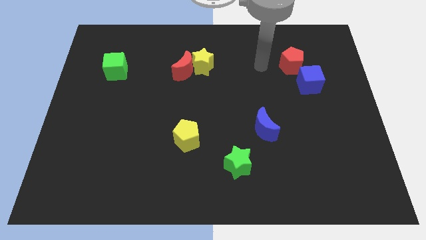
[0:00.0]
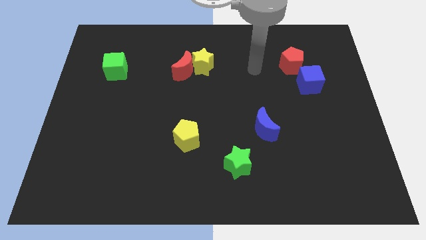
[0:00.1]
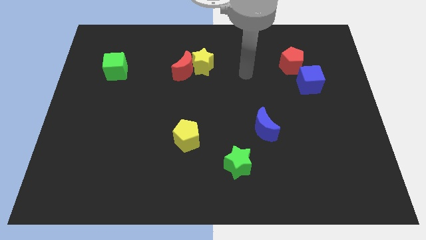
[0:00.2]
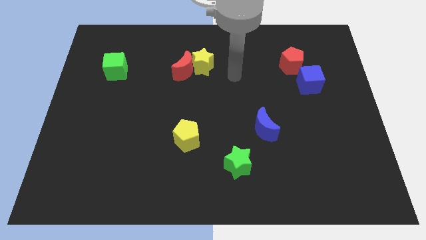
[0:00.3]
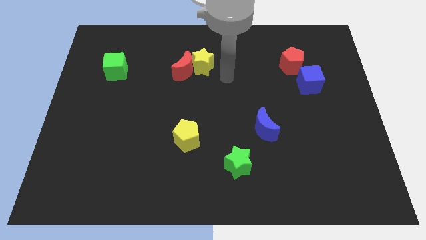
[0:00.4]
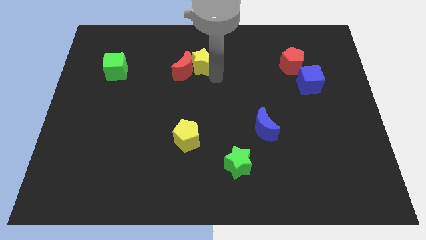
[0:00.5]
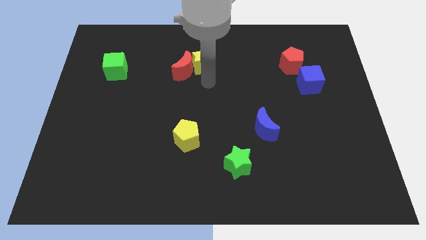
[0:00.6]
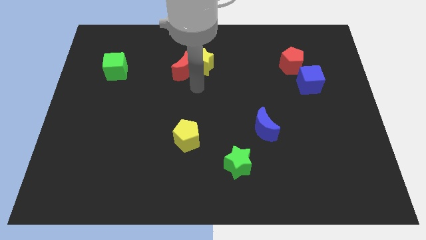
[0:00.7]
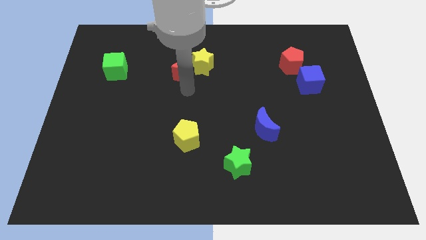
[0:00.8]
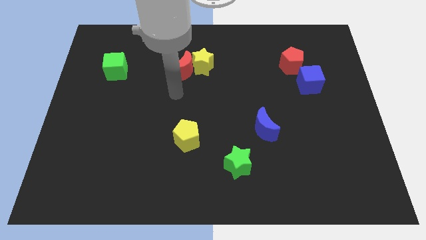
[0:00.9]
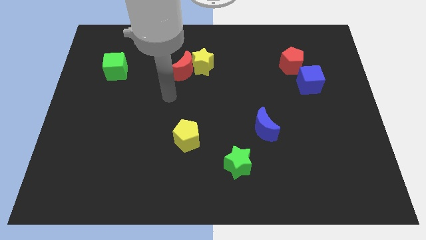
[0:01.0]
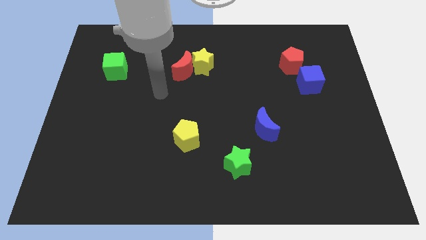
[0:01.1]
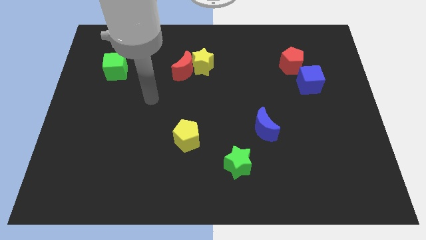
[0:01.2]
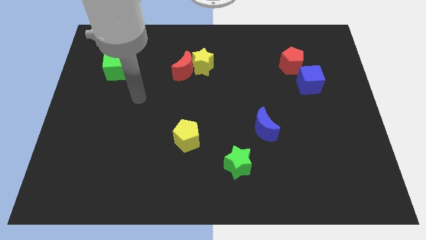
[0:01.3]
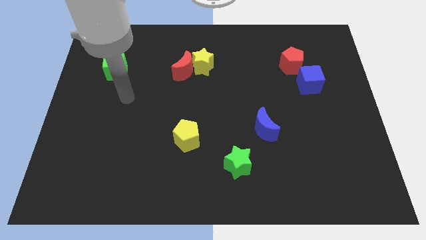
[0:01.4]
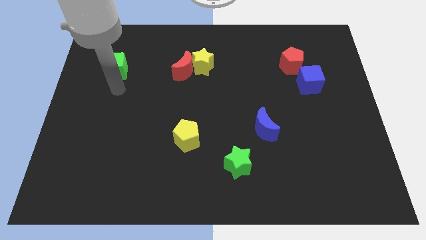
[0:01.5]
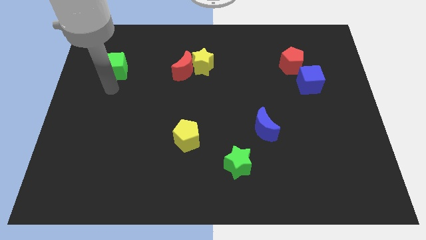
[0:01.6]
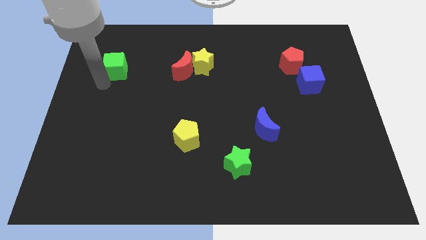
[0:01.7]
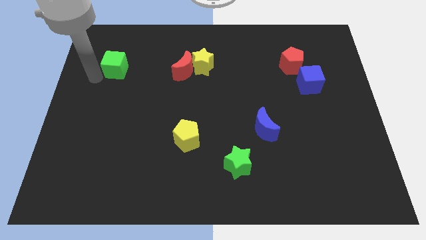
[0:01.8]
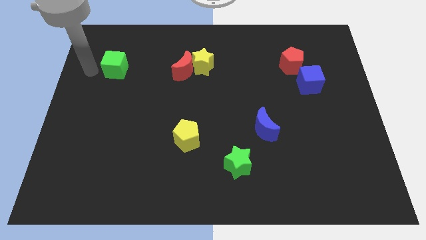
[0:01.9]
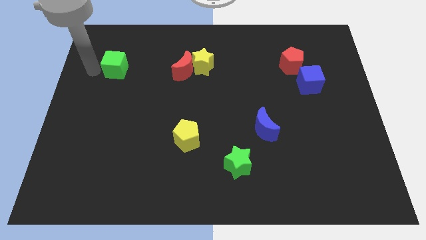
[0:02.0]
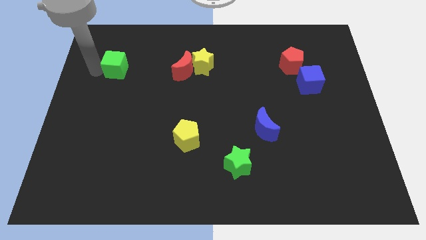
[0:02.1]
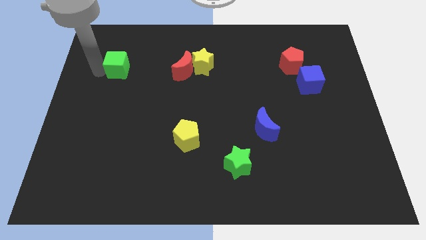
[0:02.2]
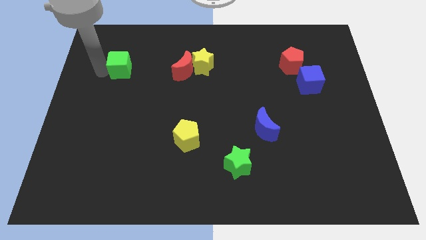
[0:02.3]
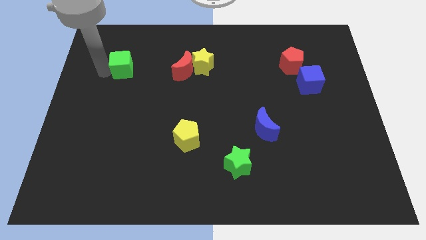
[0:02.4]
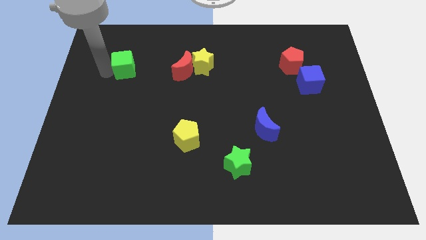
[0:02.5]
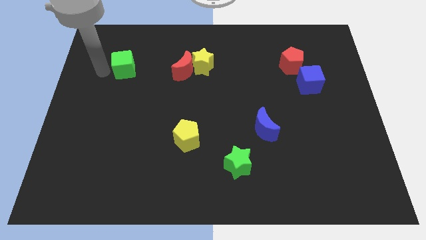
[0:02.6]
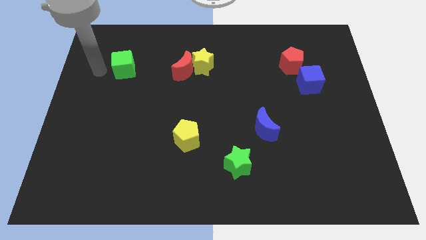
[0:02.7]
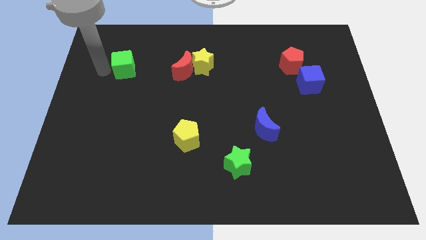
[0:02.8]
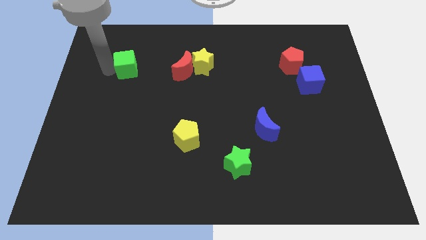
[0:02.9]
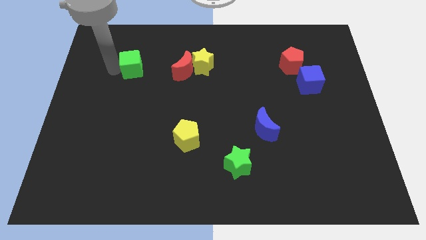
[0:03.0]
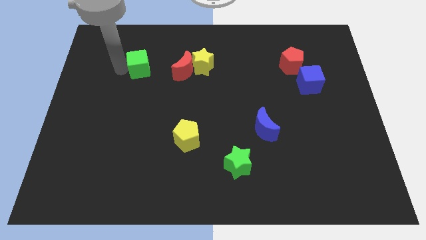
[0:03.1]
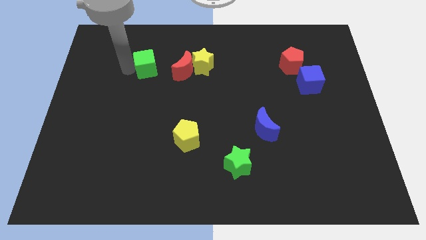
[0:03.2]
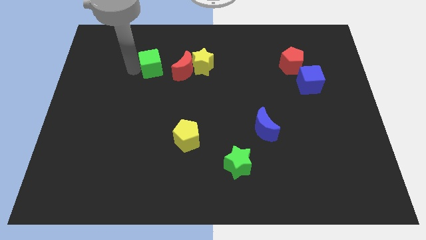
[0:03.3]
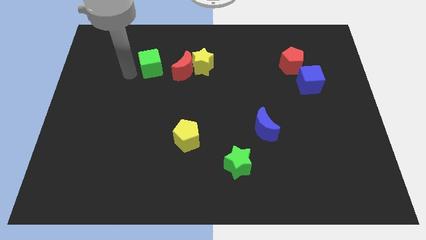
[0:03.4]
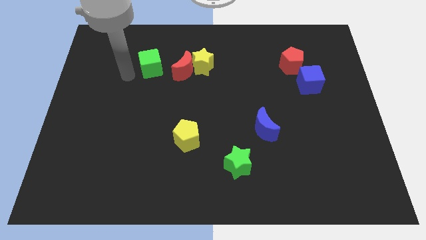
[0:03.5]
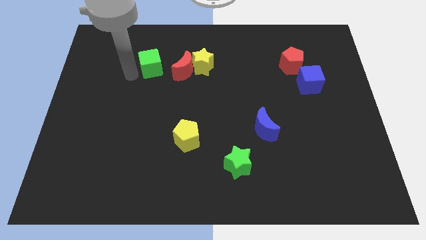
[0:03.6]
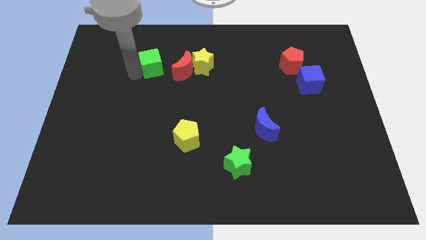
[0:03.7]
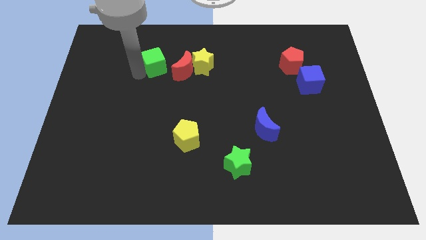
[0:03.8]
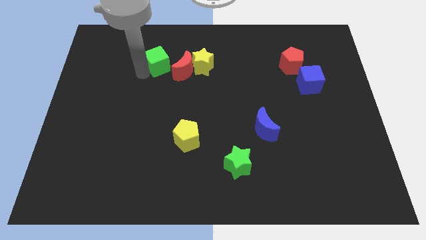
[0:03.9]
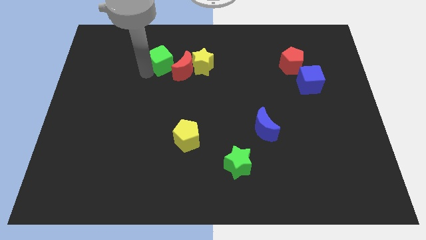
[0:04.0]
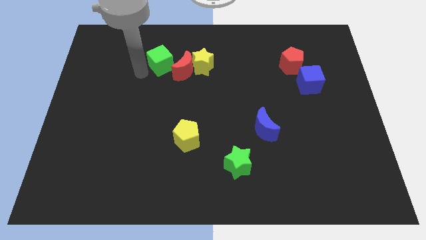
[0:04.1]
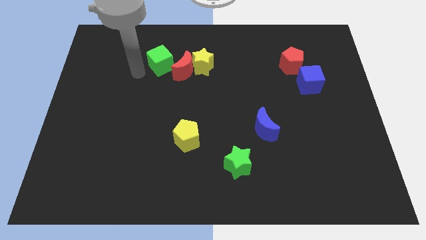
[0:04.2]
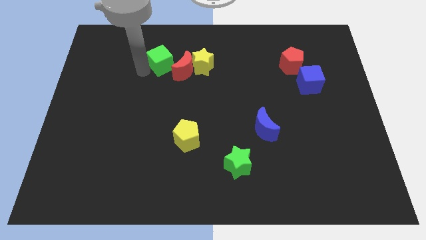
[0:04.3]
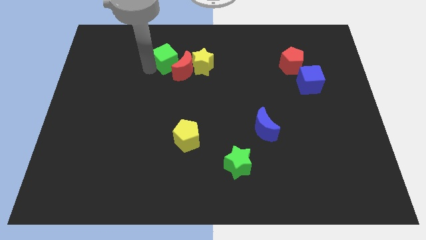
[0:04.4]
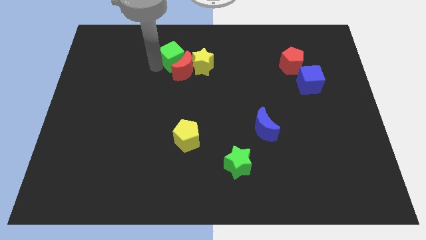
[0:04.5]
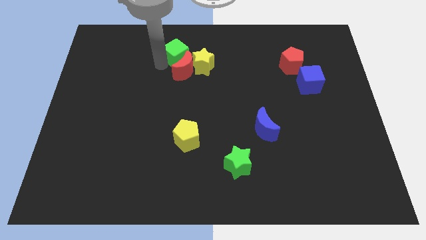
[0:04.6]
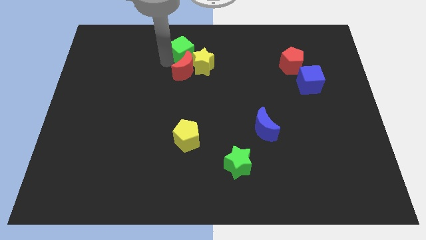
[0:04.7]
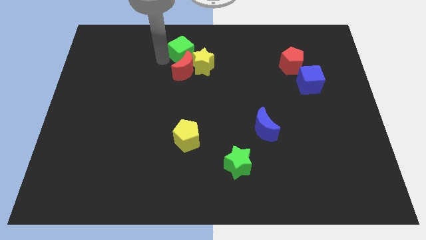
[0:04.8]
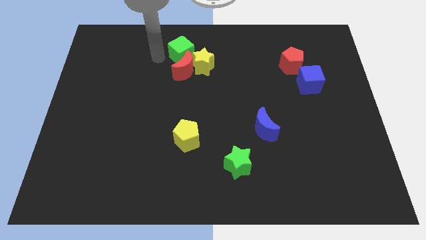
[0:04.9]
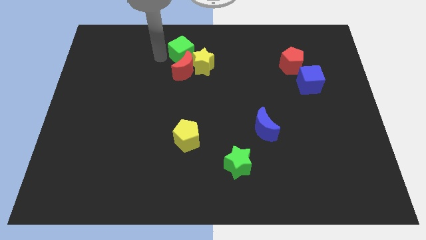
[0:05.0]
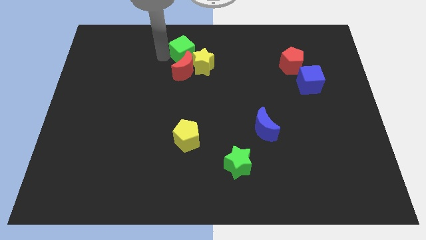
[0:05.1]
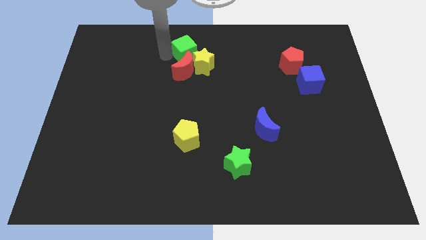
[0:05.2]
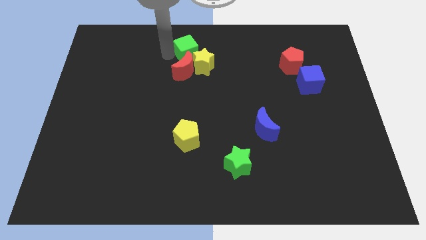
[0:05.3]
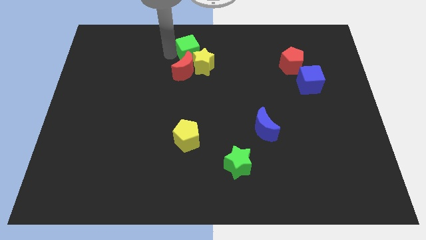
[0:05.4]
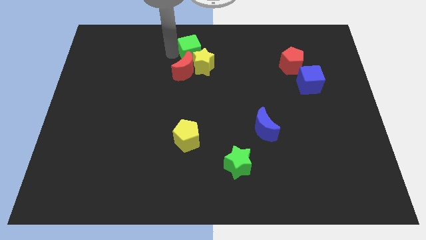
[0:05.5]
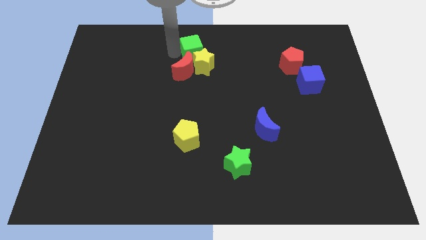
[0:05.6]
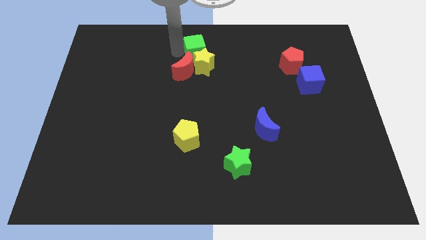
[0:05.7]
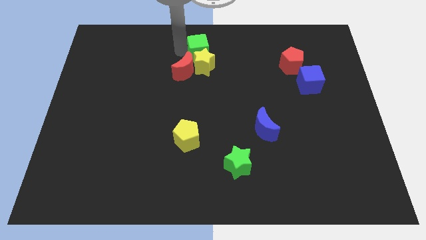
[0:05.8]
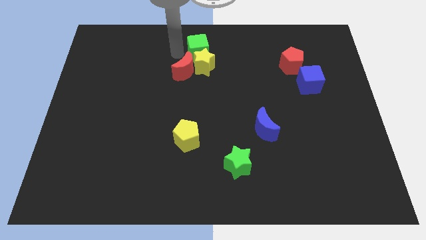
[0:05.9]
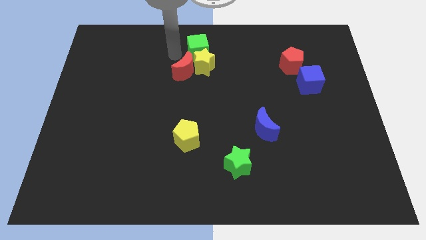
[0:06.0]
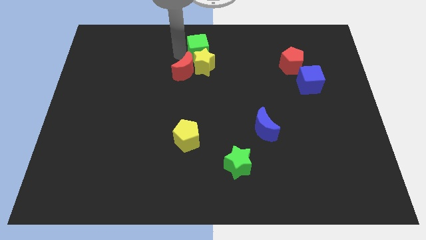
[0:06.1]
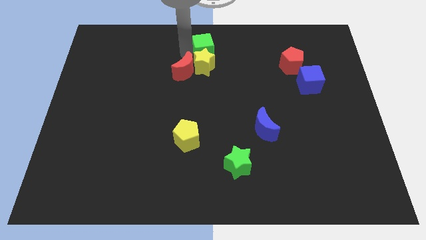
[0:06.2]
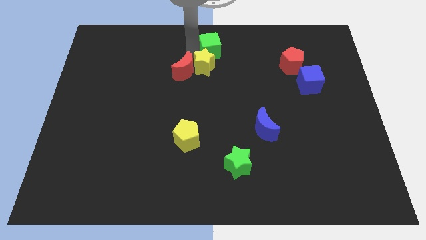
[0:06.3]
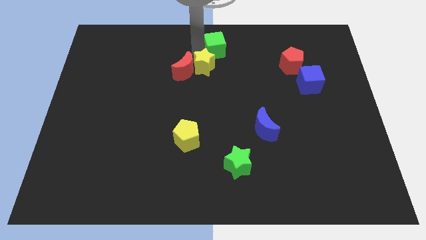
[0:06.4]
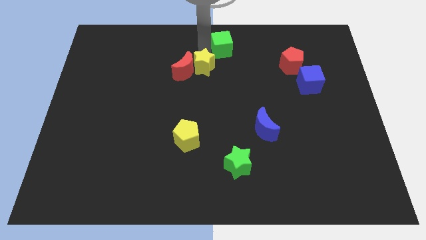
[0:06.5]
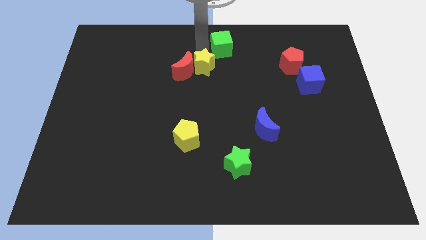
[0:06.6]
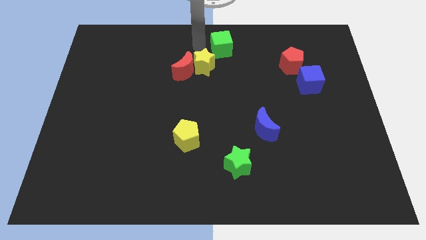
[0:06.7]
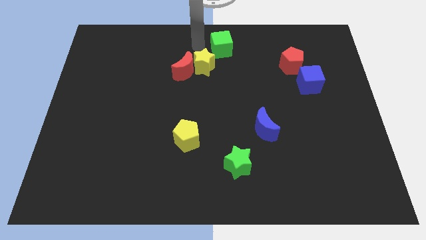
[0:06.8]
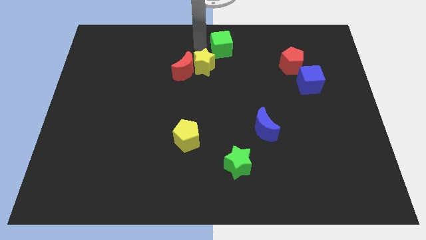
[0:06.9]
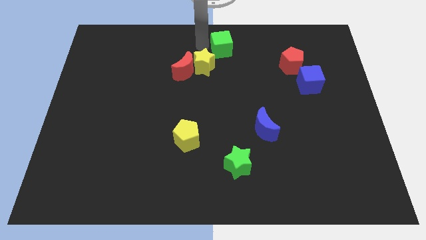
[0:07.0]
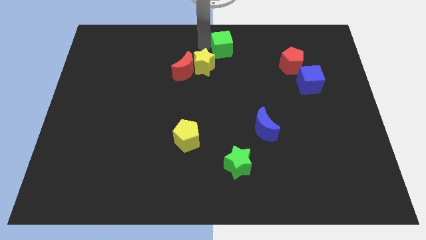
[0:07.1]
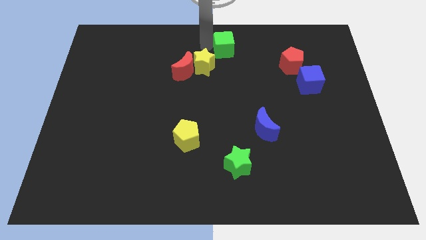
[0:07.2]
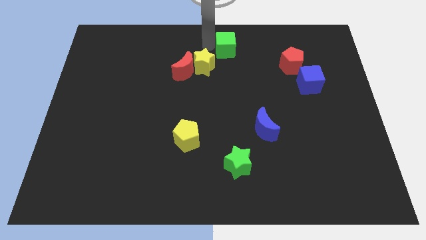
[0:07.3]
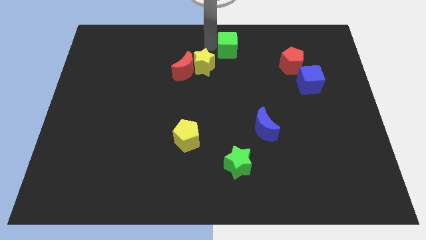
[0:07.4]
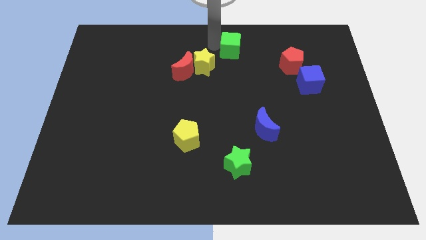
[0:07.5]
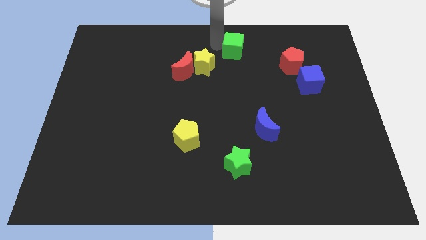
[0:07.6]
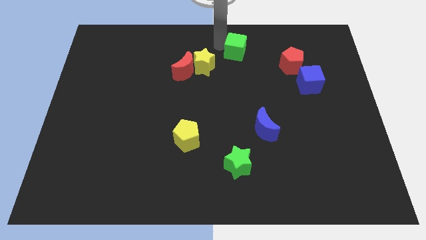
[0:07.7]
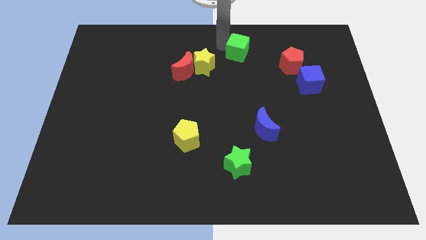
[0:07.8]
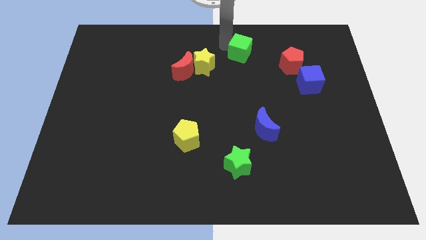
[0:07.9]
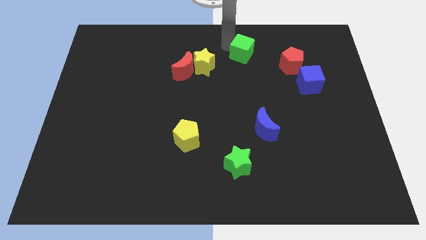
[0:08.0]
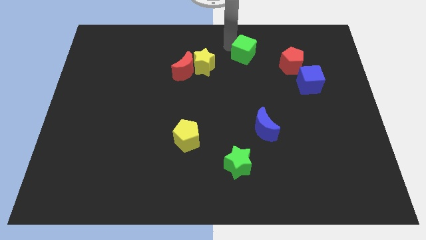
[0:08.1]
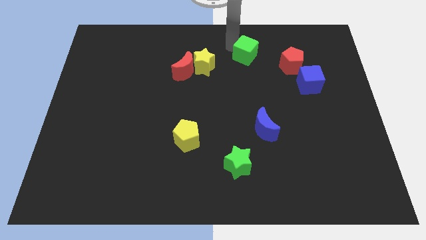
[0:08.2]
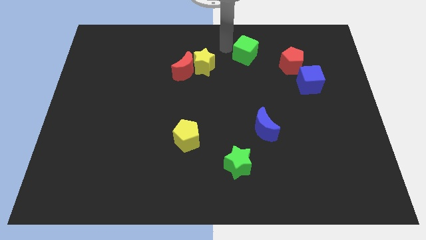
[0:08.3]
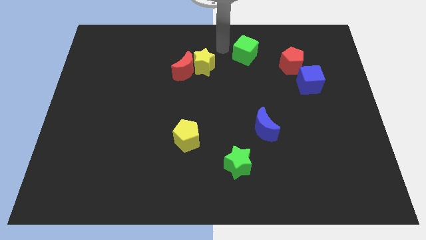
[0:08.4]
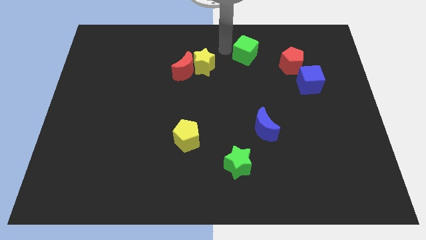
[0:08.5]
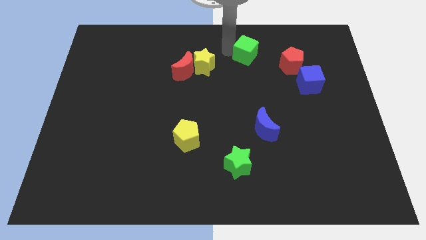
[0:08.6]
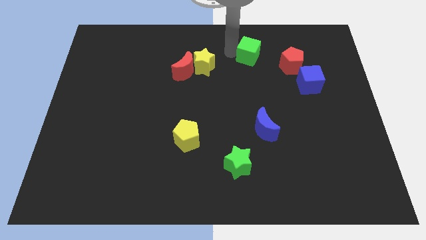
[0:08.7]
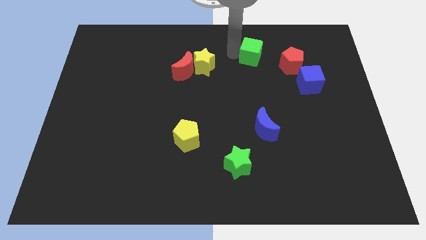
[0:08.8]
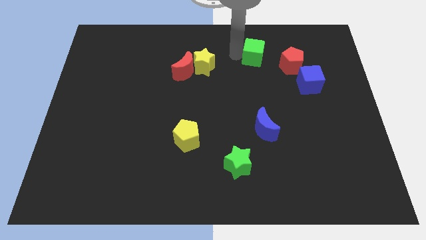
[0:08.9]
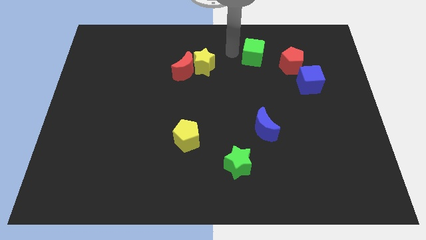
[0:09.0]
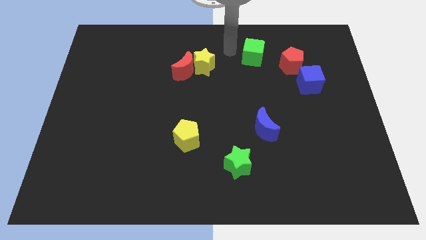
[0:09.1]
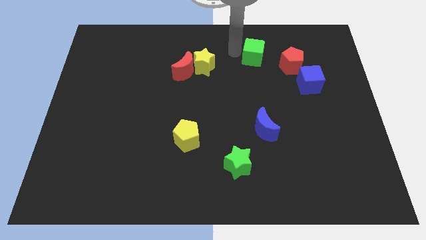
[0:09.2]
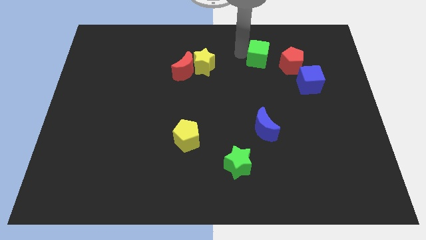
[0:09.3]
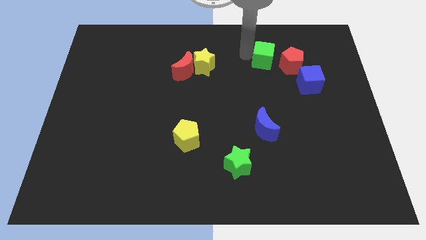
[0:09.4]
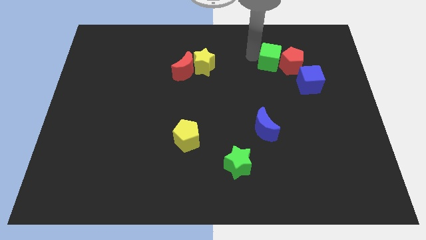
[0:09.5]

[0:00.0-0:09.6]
slide the green cube to the top left side of the blue cube
